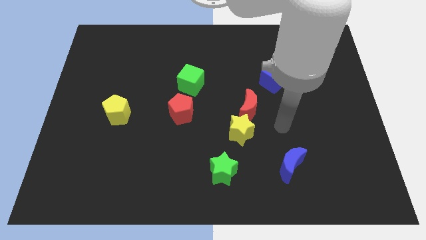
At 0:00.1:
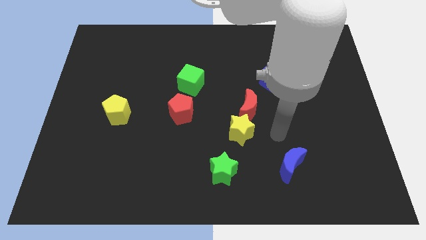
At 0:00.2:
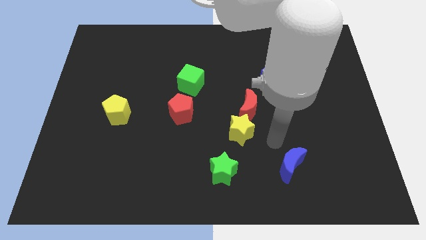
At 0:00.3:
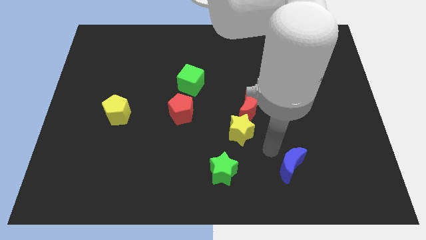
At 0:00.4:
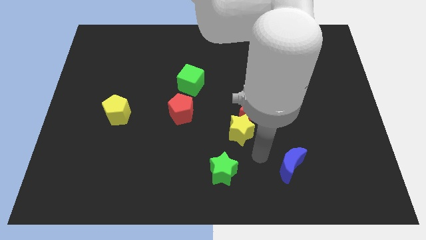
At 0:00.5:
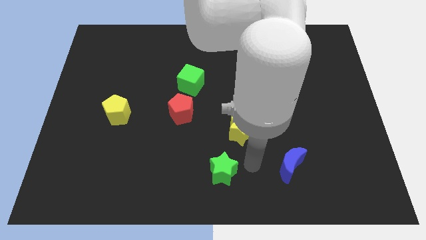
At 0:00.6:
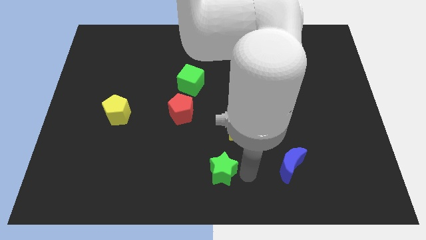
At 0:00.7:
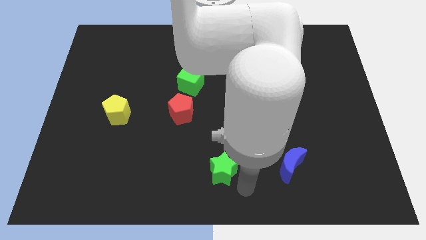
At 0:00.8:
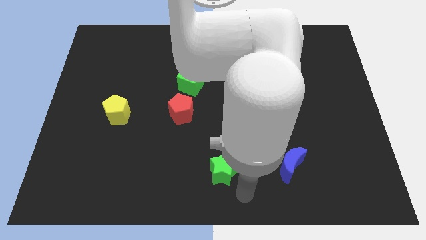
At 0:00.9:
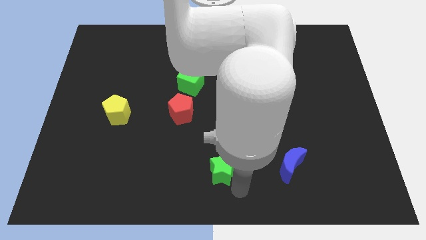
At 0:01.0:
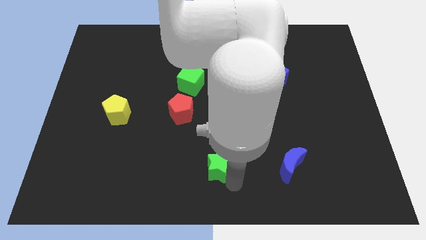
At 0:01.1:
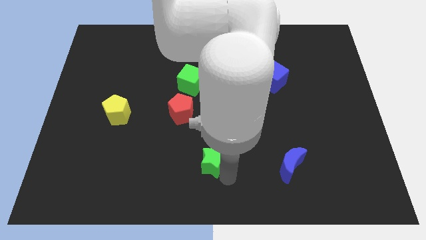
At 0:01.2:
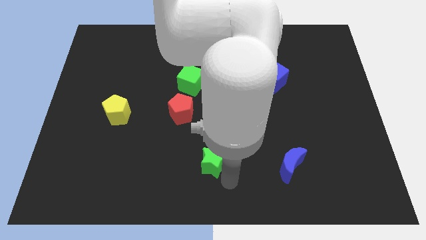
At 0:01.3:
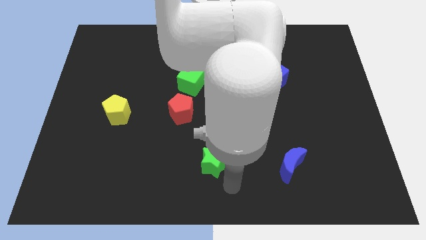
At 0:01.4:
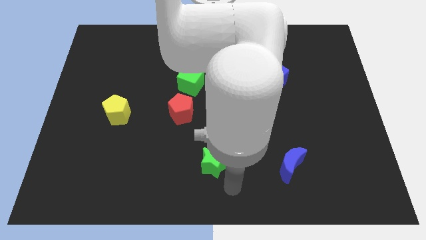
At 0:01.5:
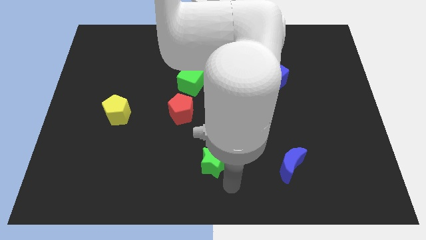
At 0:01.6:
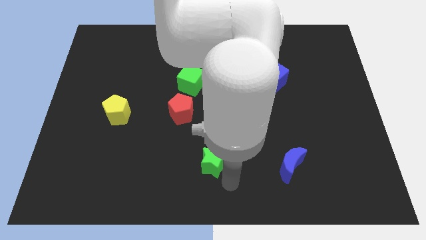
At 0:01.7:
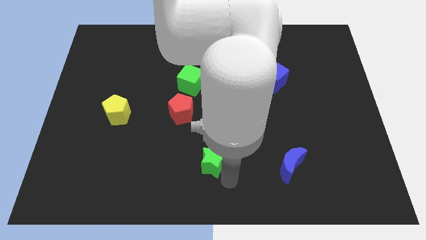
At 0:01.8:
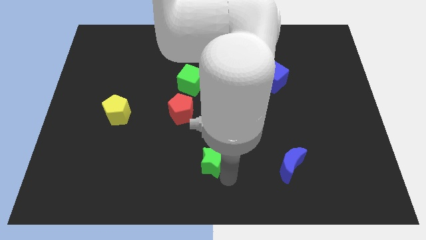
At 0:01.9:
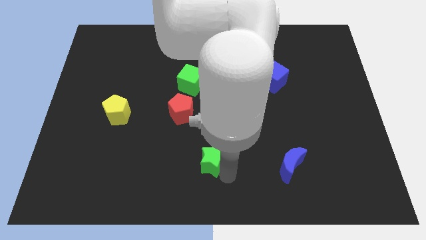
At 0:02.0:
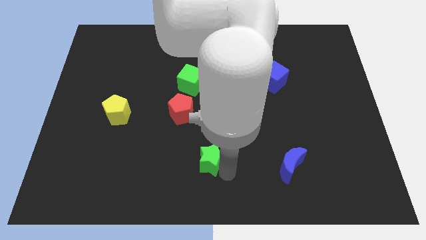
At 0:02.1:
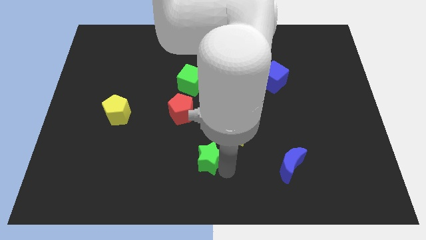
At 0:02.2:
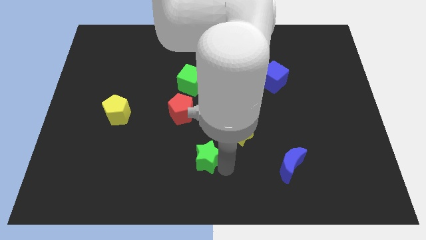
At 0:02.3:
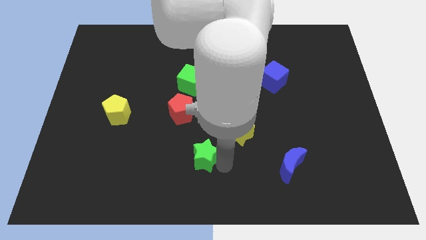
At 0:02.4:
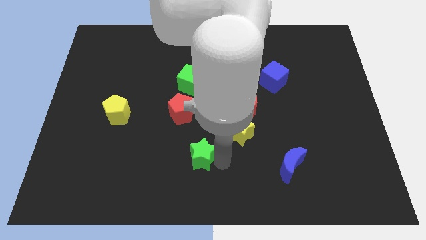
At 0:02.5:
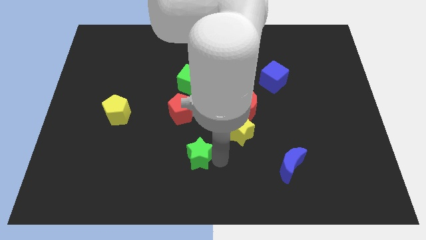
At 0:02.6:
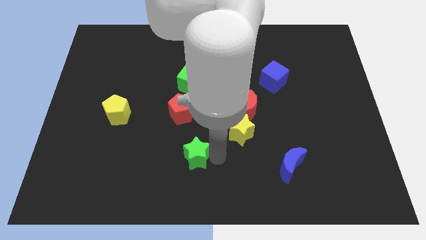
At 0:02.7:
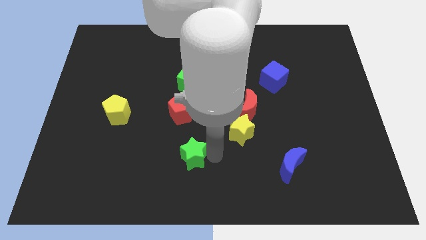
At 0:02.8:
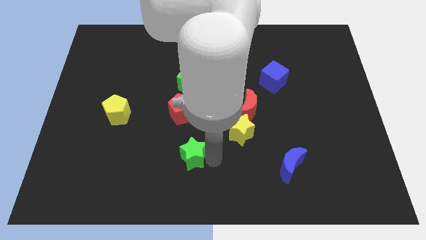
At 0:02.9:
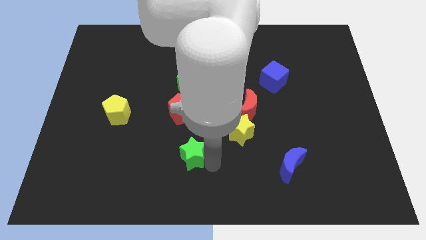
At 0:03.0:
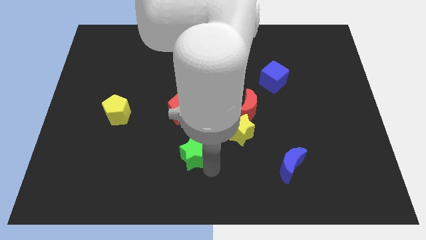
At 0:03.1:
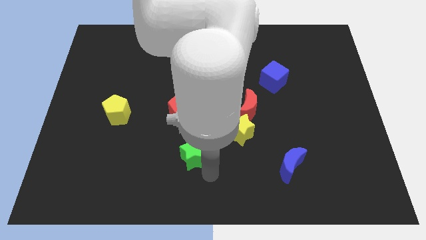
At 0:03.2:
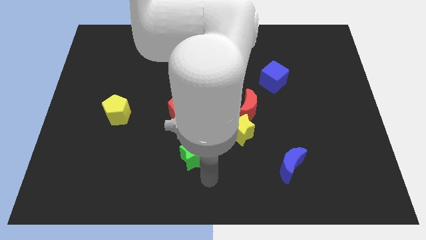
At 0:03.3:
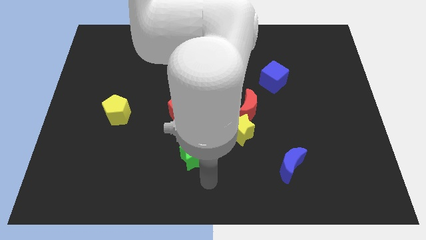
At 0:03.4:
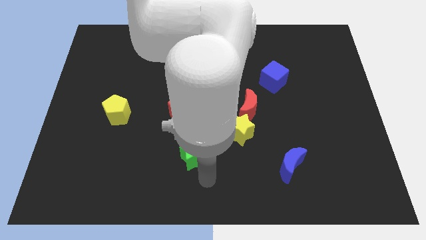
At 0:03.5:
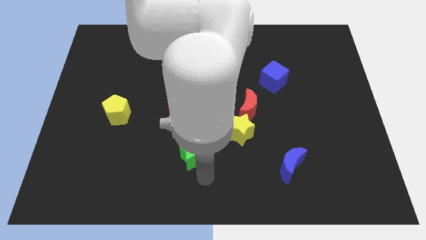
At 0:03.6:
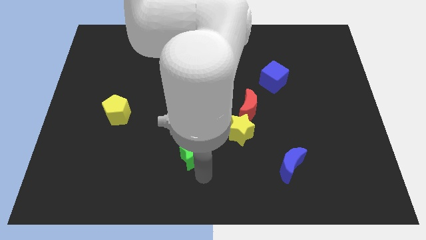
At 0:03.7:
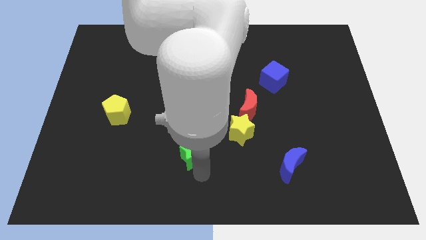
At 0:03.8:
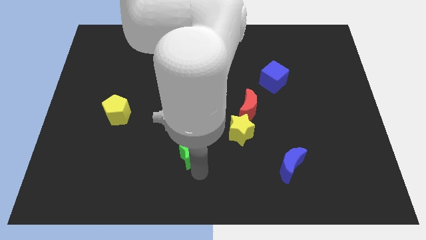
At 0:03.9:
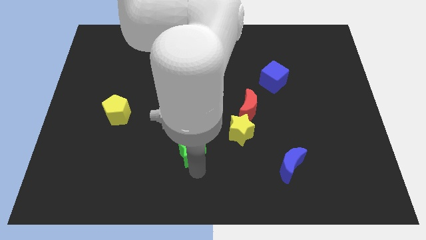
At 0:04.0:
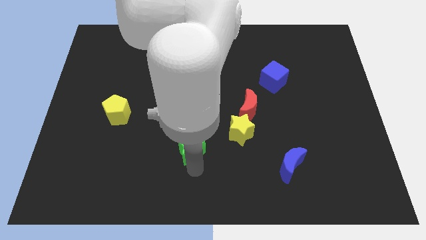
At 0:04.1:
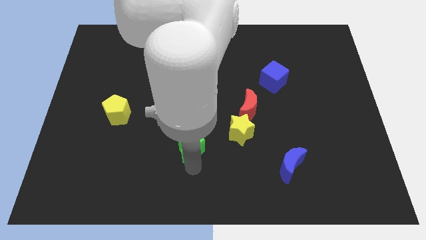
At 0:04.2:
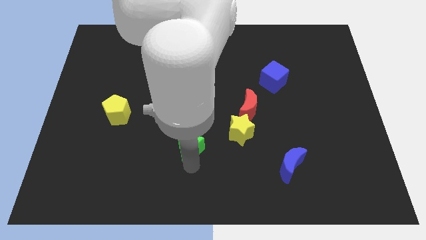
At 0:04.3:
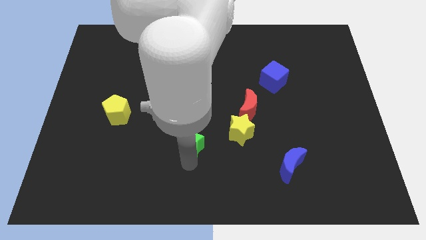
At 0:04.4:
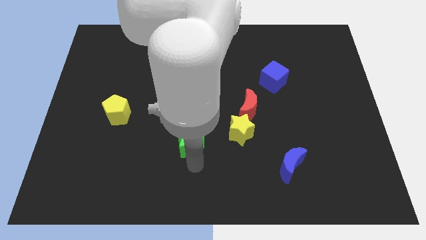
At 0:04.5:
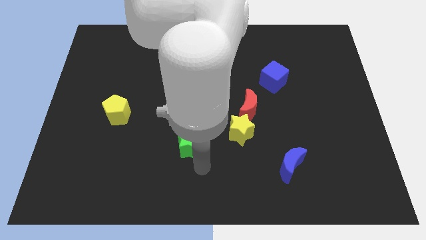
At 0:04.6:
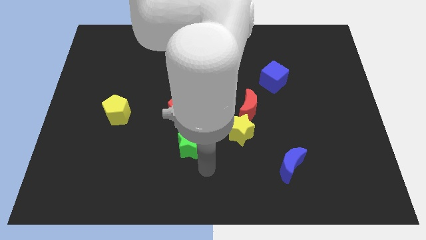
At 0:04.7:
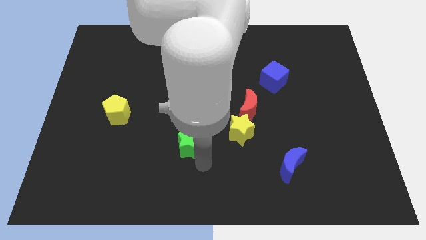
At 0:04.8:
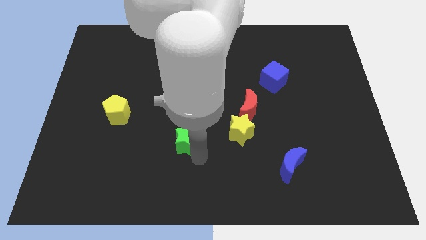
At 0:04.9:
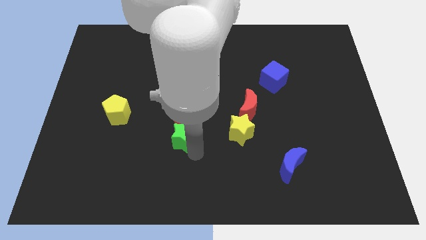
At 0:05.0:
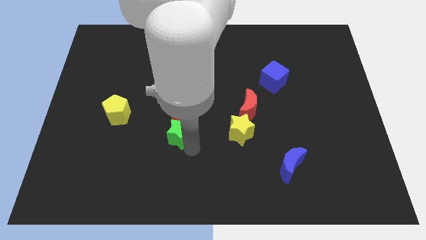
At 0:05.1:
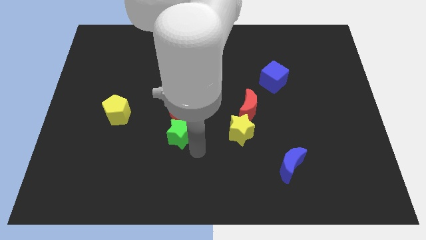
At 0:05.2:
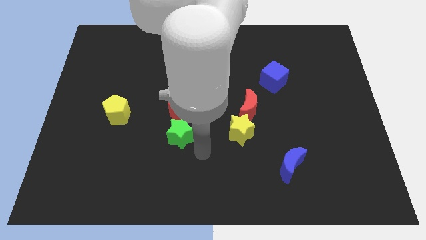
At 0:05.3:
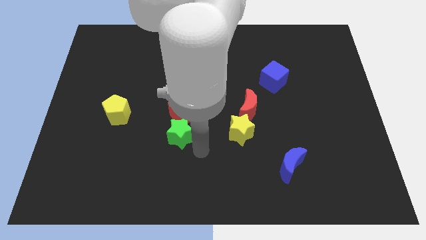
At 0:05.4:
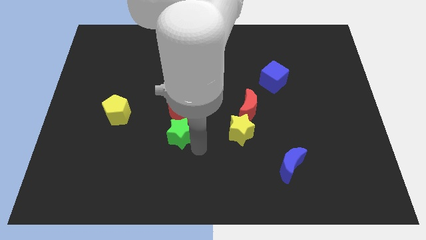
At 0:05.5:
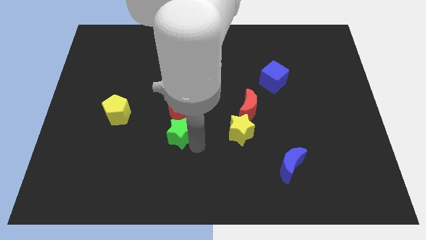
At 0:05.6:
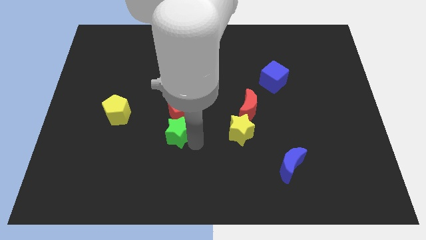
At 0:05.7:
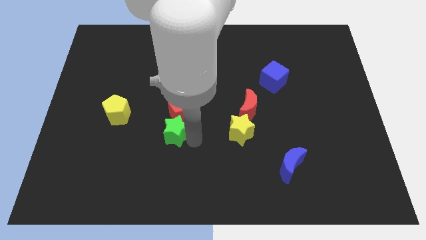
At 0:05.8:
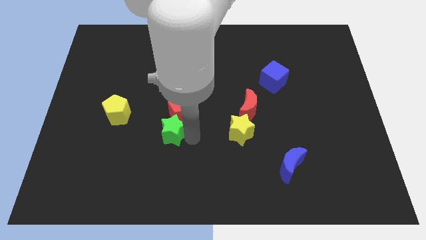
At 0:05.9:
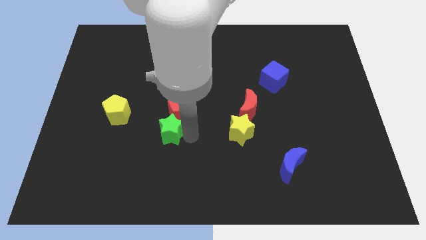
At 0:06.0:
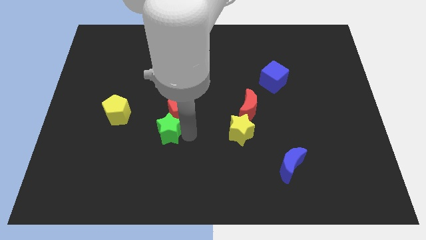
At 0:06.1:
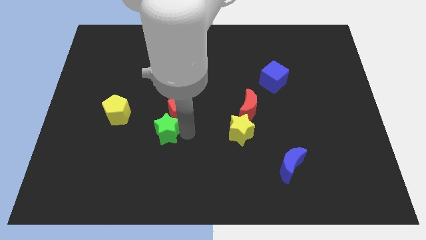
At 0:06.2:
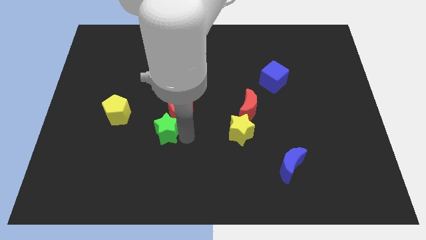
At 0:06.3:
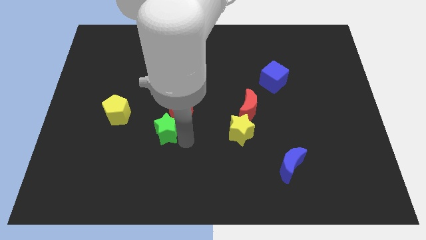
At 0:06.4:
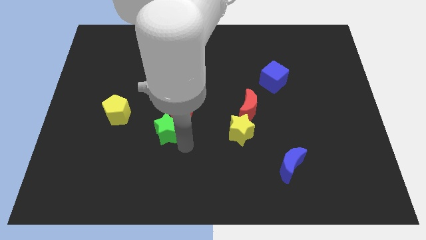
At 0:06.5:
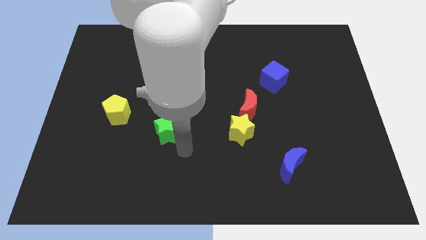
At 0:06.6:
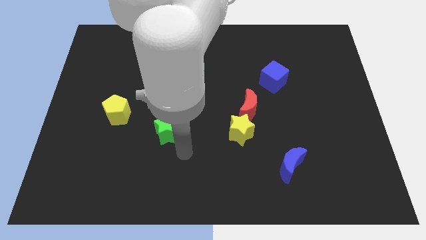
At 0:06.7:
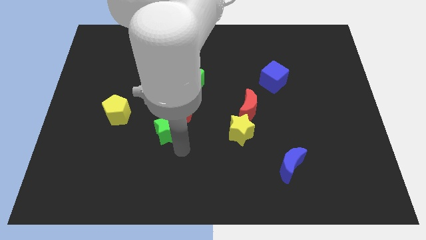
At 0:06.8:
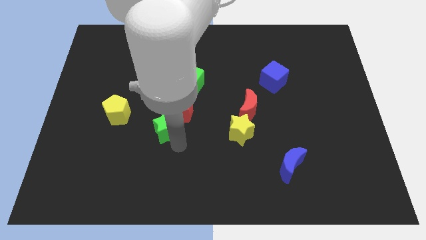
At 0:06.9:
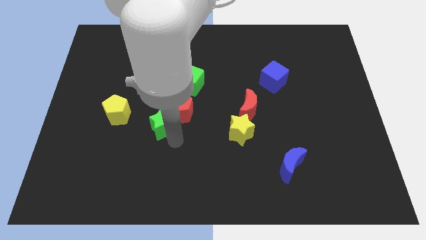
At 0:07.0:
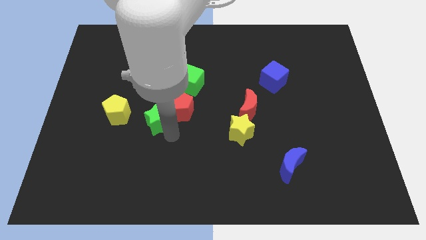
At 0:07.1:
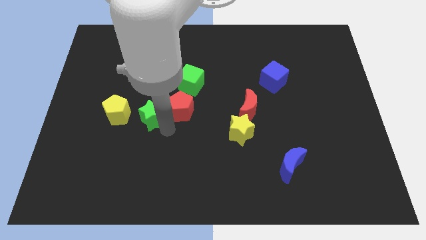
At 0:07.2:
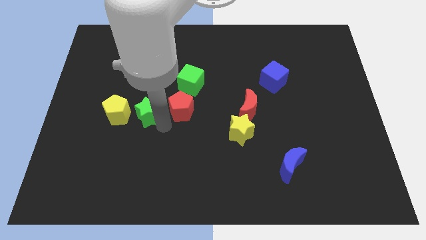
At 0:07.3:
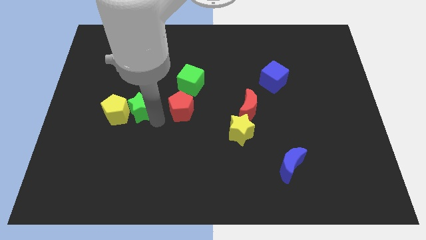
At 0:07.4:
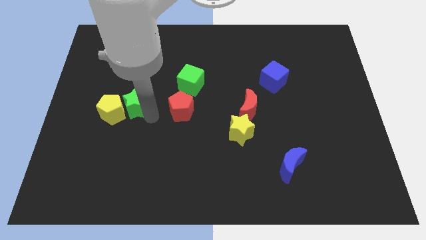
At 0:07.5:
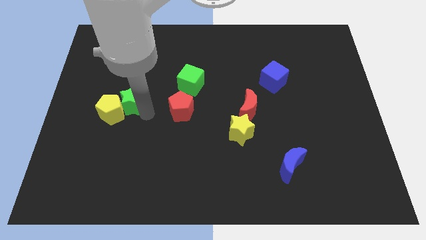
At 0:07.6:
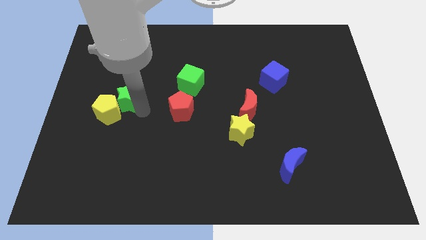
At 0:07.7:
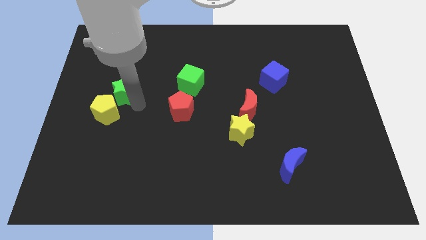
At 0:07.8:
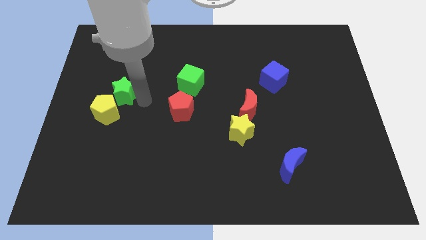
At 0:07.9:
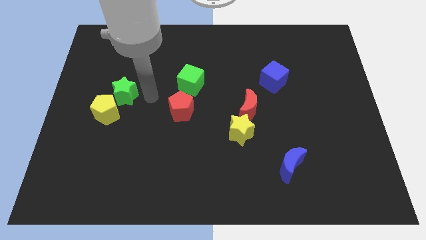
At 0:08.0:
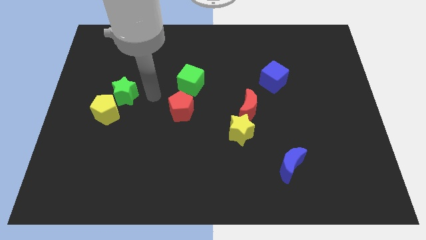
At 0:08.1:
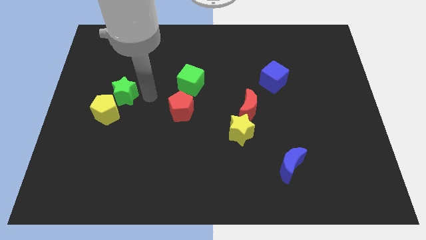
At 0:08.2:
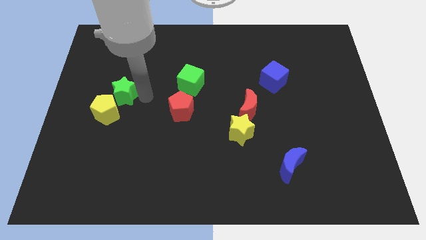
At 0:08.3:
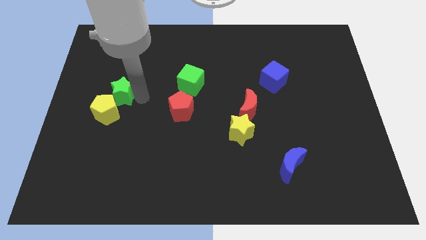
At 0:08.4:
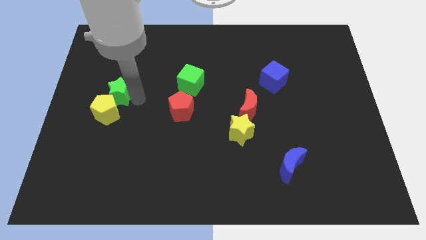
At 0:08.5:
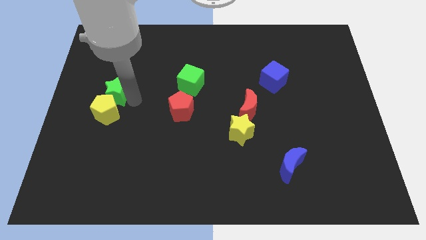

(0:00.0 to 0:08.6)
put the green star diagonally up and to the left of the yellow pentagon
